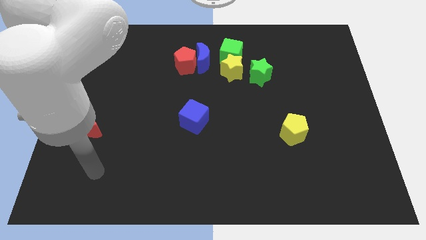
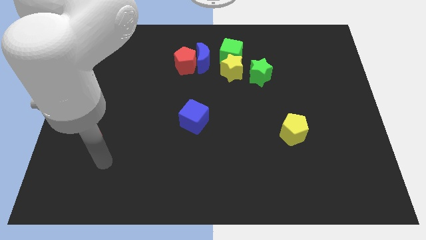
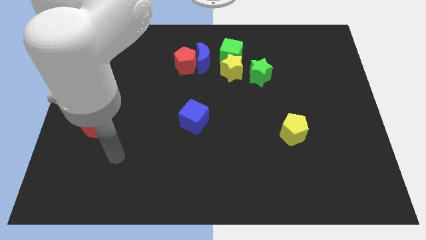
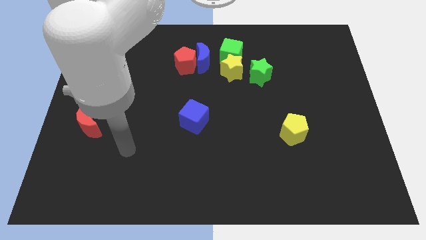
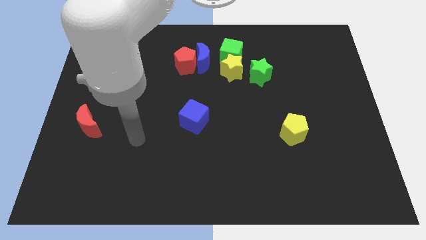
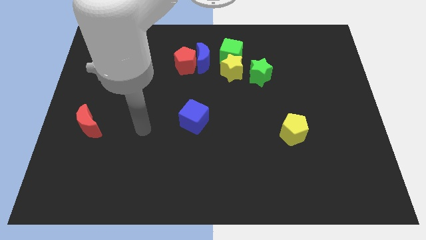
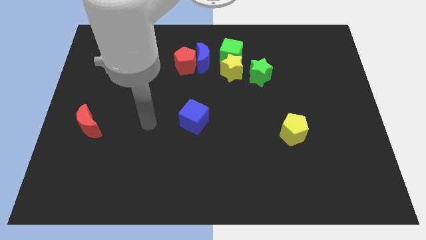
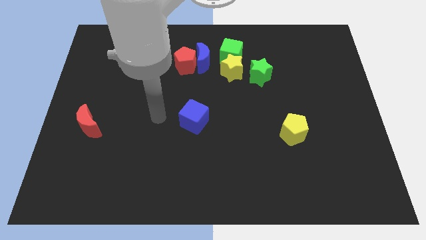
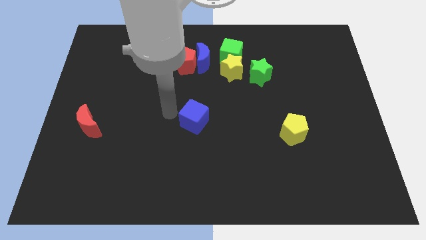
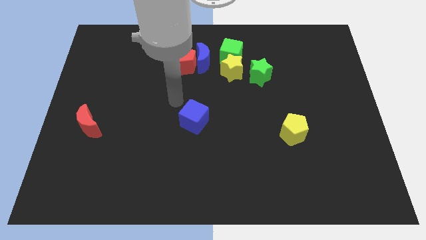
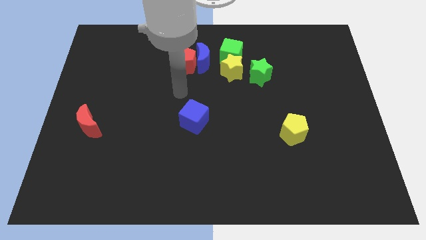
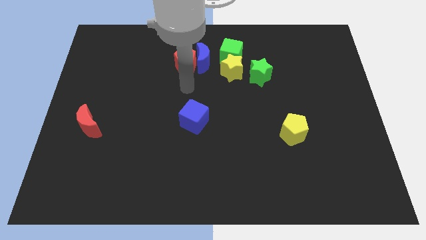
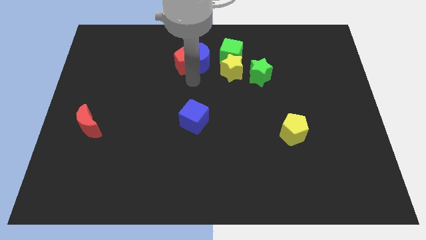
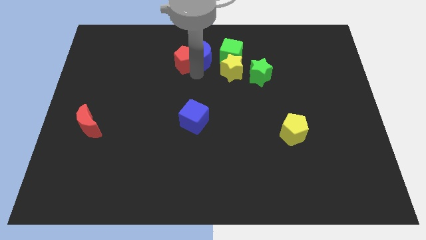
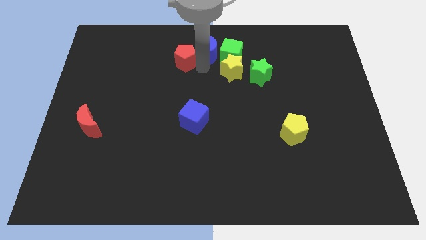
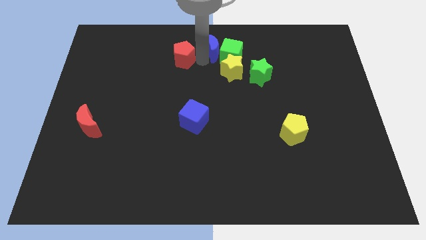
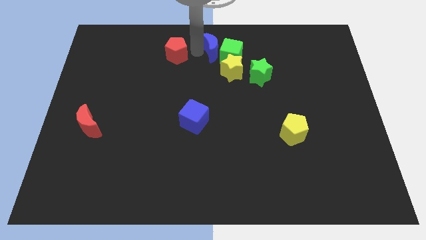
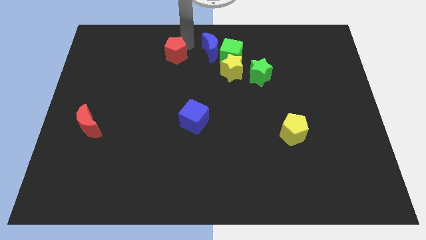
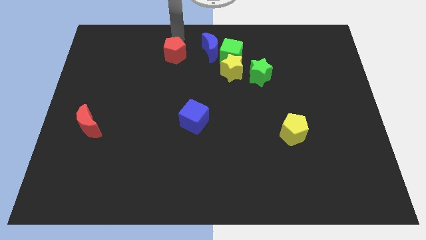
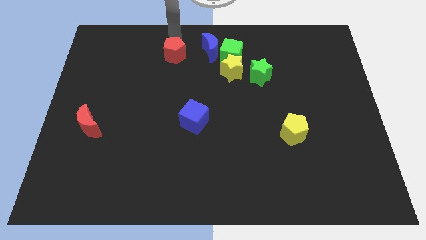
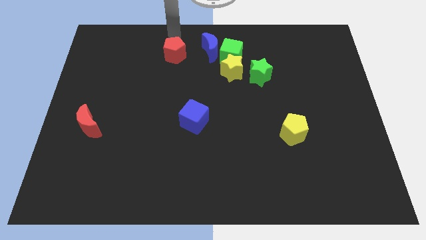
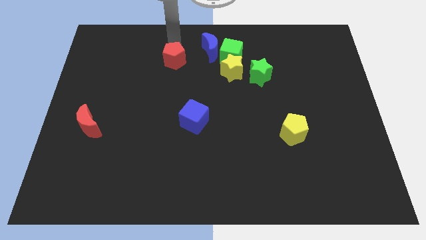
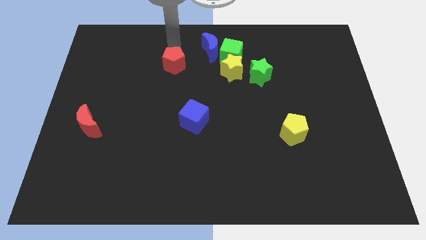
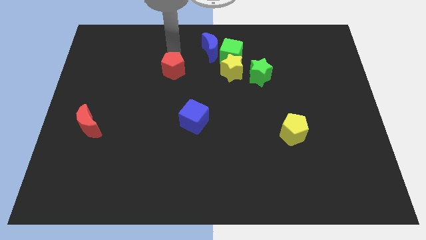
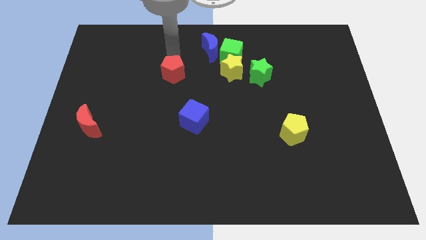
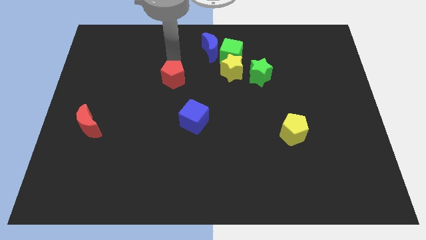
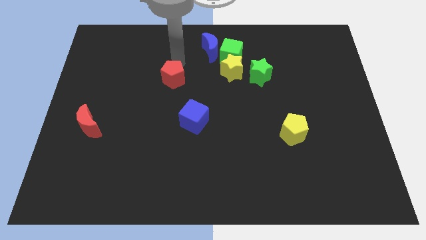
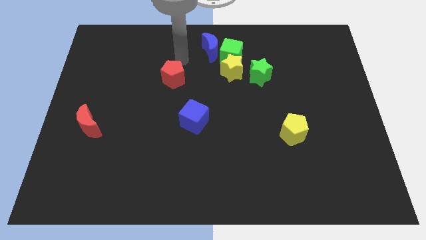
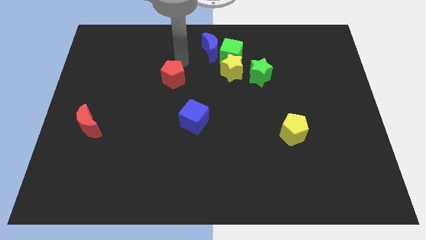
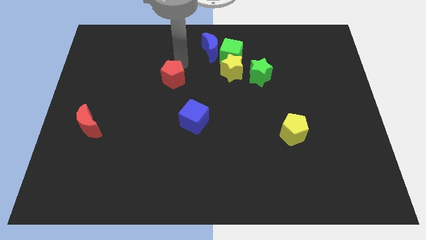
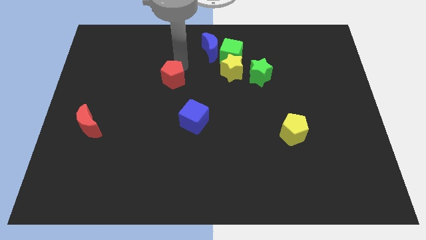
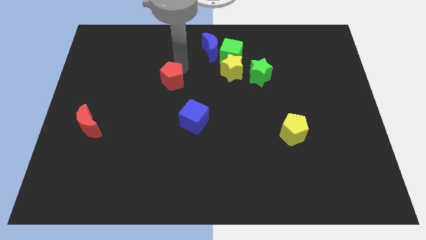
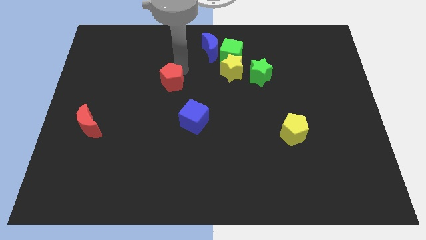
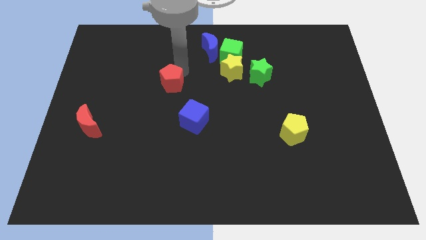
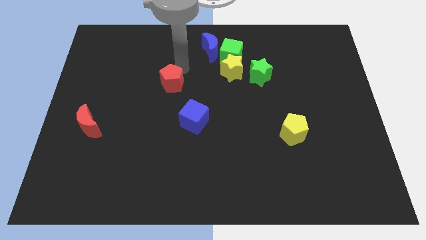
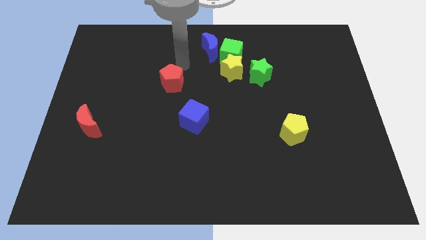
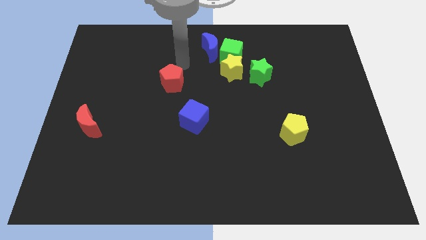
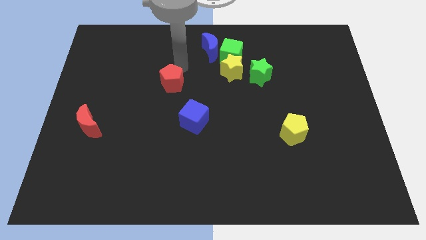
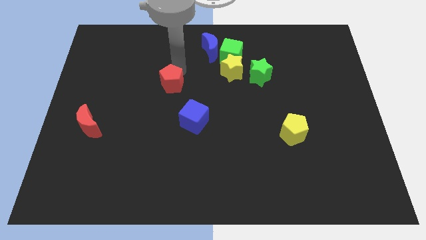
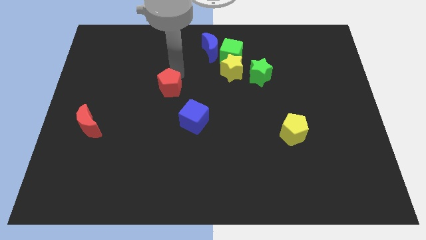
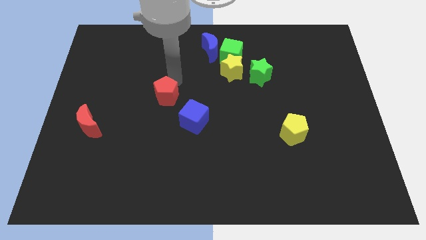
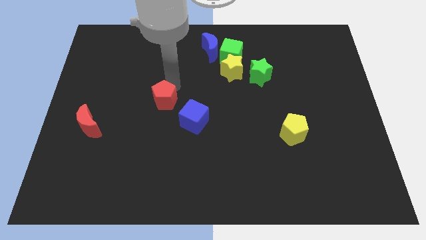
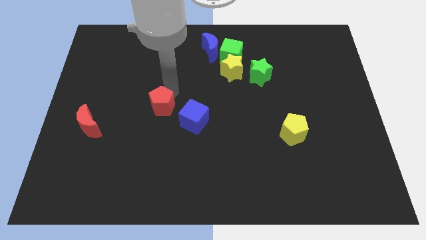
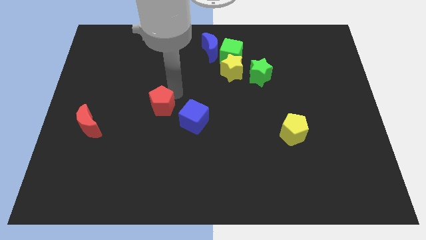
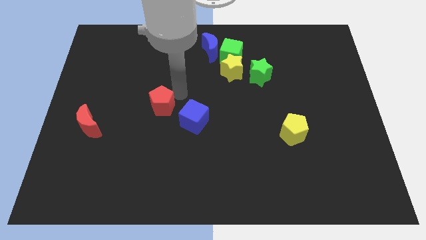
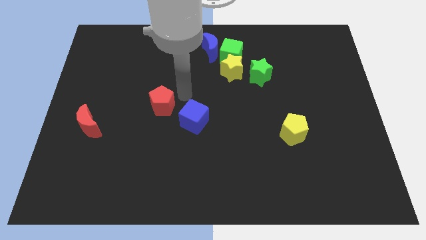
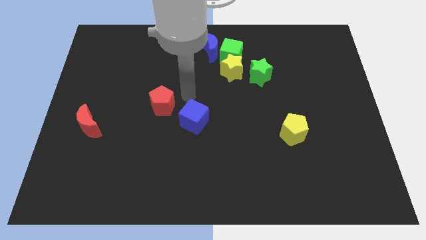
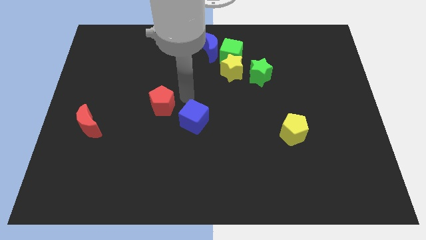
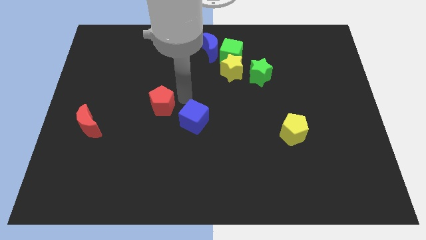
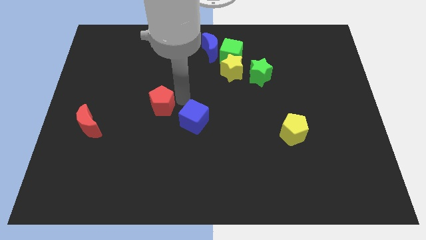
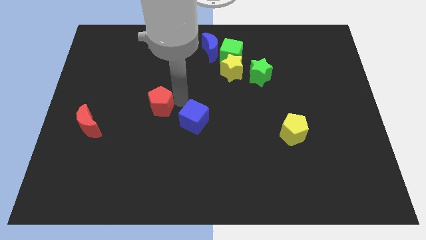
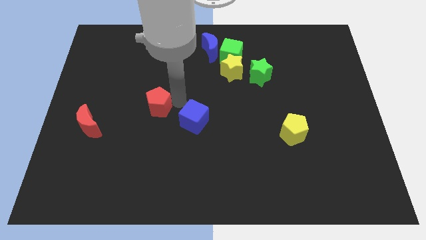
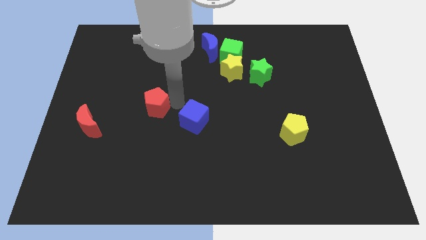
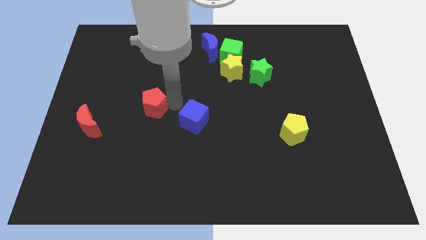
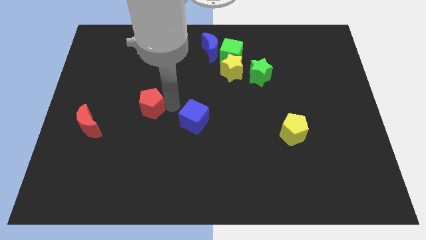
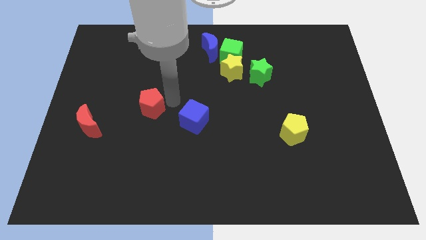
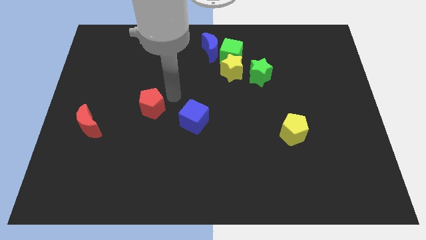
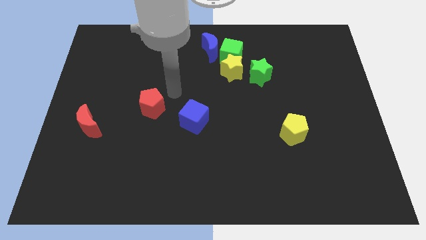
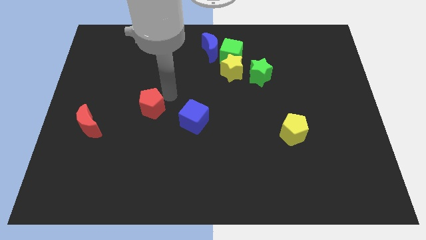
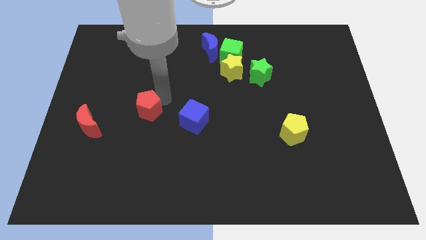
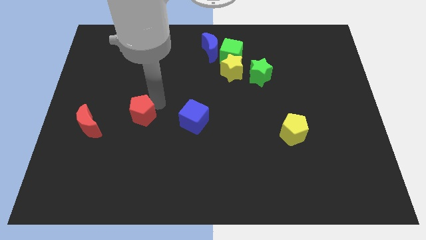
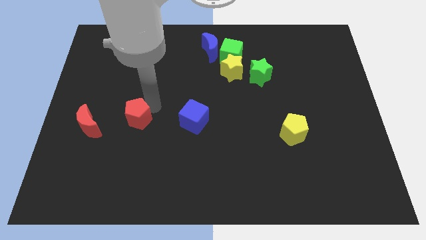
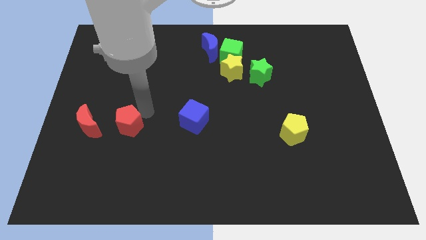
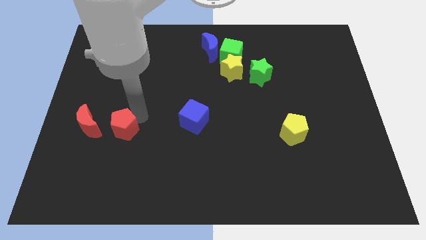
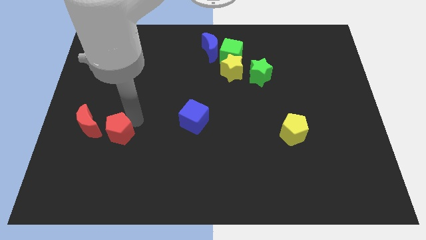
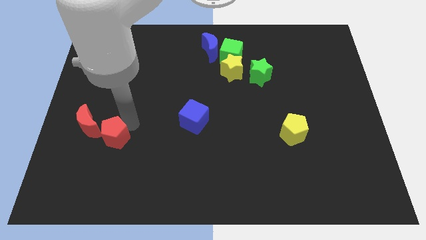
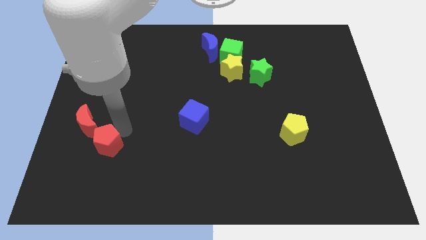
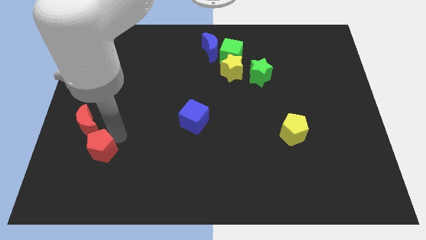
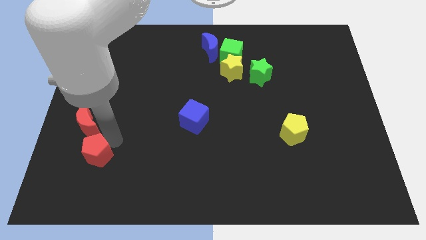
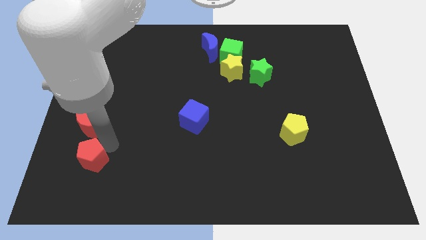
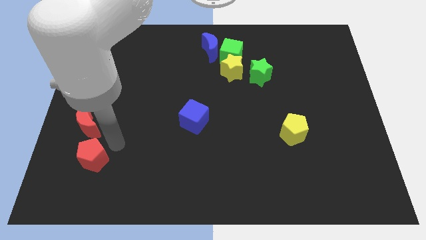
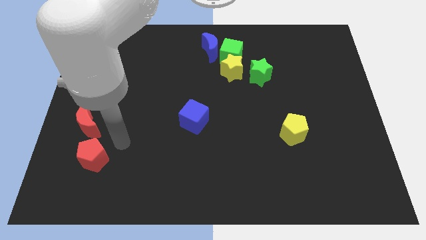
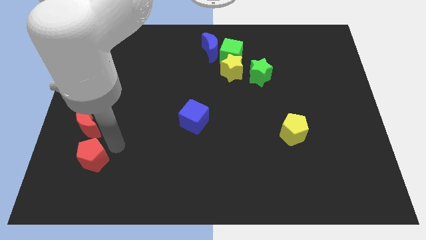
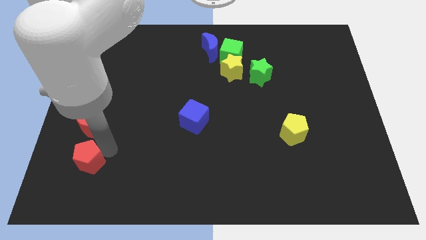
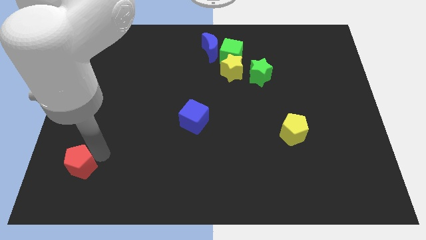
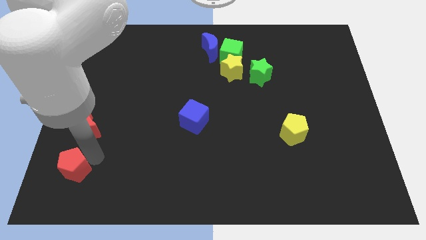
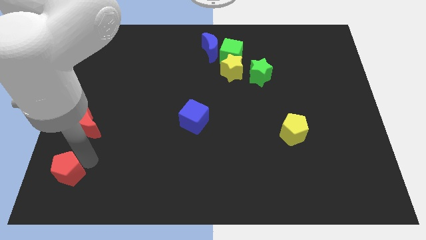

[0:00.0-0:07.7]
slide the red pentagon to the bottom left of the board
